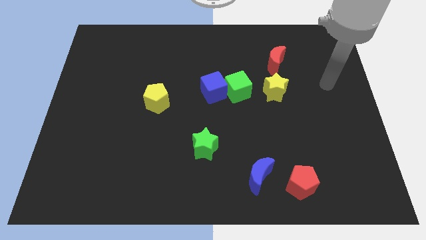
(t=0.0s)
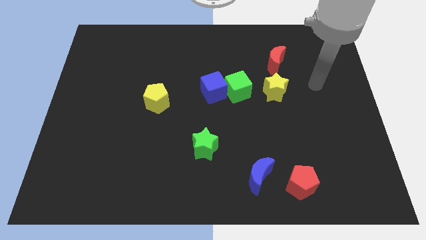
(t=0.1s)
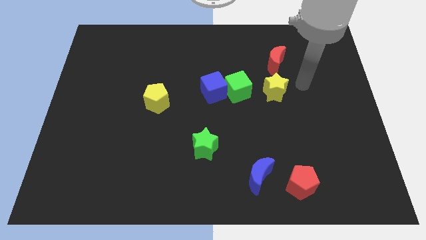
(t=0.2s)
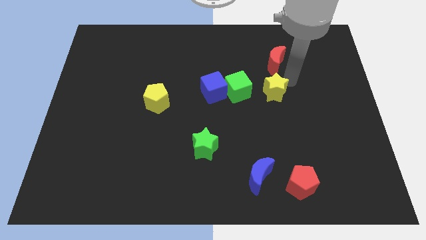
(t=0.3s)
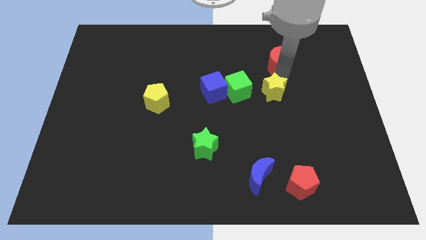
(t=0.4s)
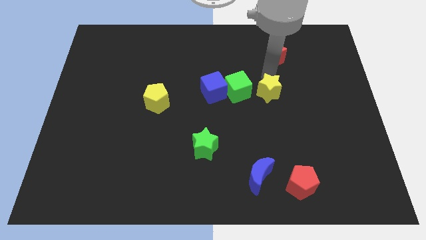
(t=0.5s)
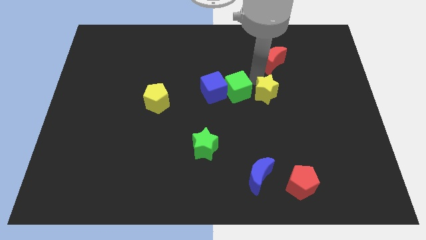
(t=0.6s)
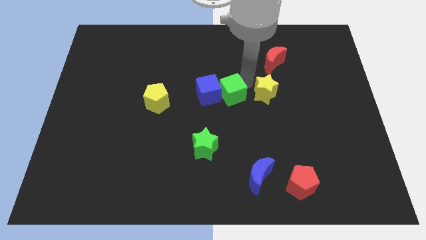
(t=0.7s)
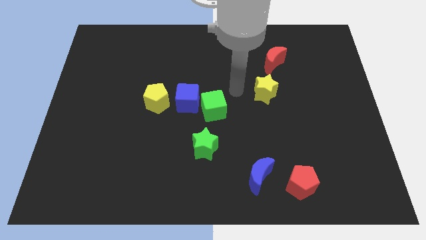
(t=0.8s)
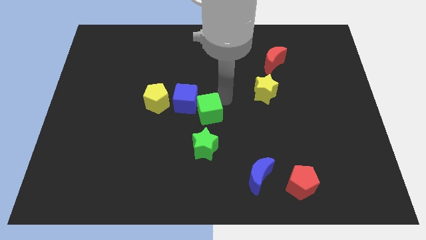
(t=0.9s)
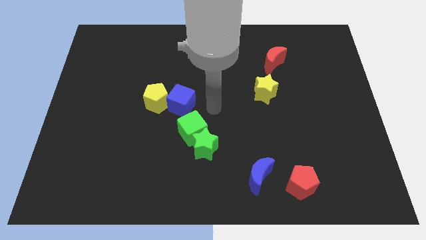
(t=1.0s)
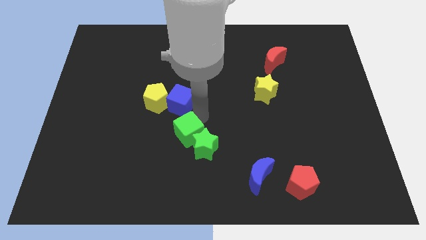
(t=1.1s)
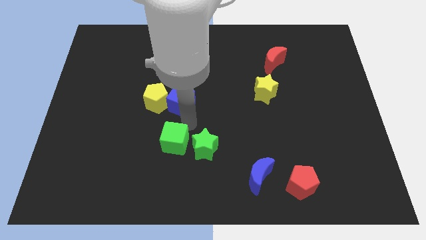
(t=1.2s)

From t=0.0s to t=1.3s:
move the blue cube away from the green cube

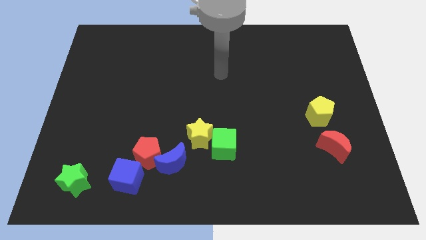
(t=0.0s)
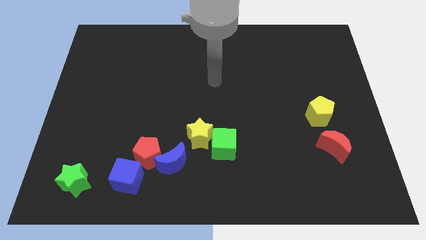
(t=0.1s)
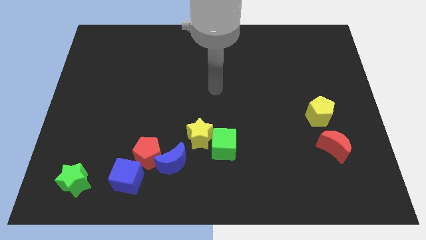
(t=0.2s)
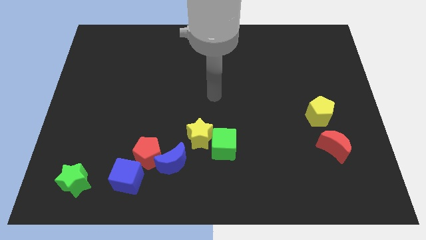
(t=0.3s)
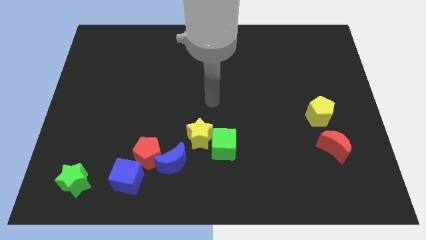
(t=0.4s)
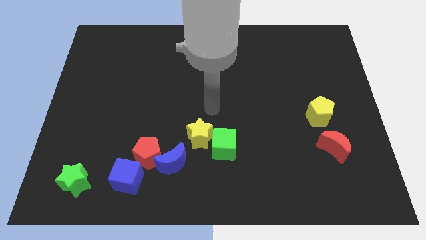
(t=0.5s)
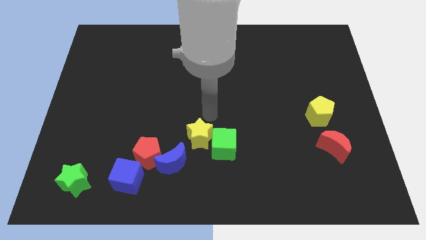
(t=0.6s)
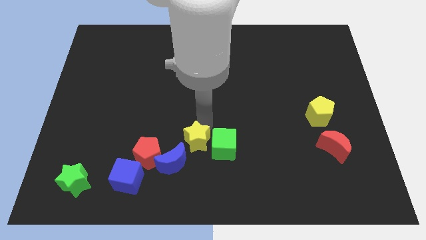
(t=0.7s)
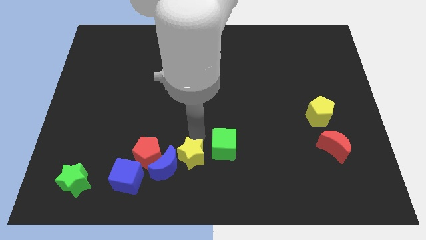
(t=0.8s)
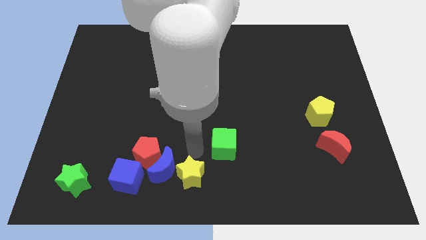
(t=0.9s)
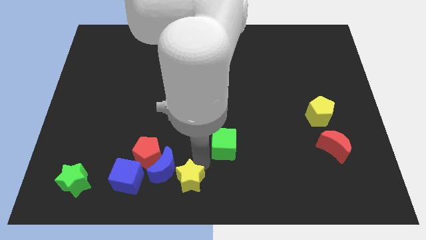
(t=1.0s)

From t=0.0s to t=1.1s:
pull the green cube apart from the yellow star

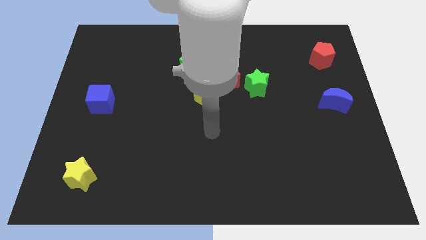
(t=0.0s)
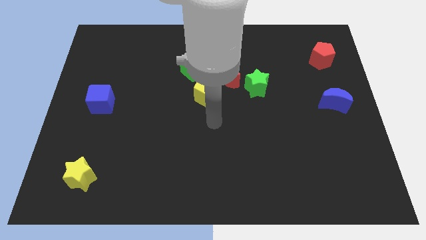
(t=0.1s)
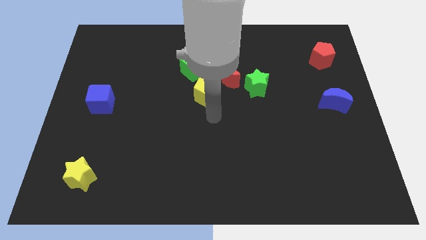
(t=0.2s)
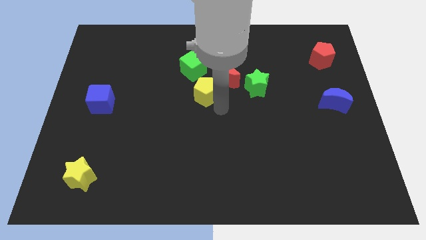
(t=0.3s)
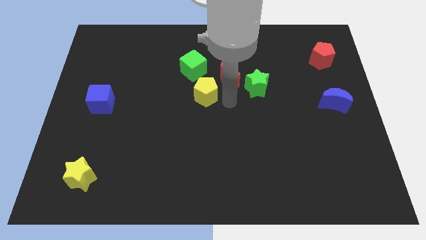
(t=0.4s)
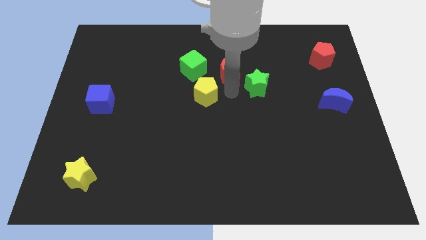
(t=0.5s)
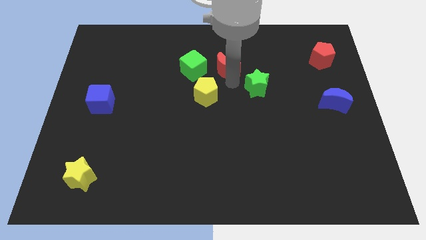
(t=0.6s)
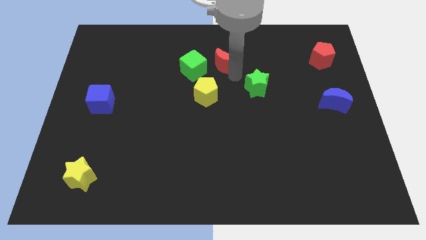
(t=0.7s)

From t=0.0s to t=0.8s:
move the green star away from the red moon

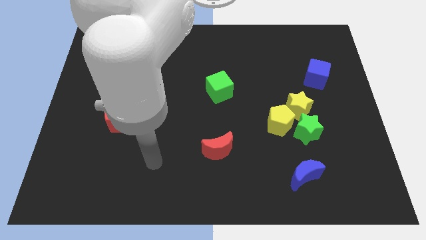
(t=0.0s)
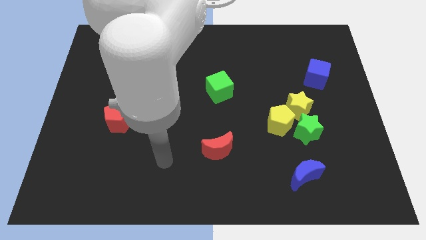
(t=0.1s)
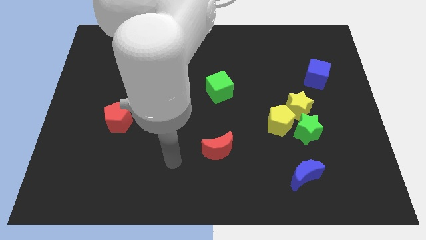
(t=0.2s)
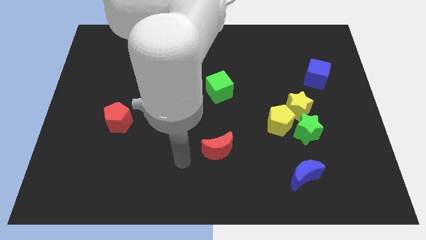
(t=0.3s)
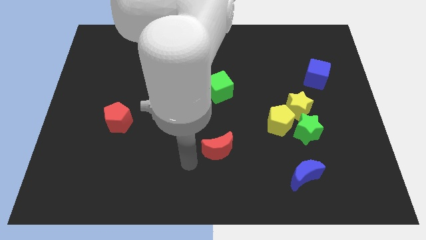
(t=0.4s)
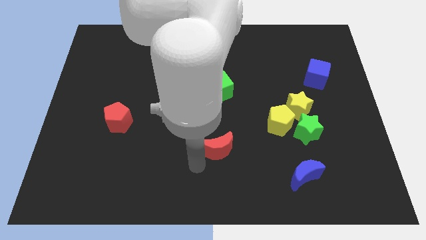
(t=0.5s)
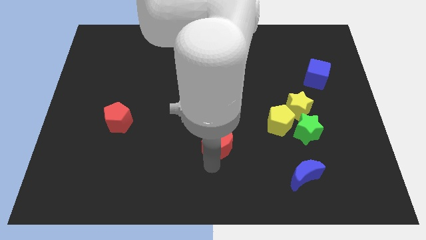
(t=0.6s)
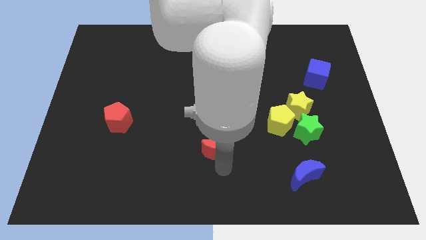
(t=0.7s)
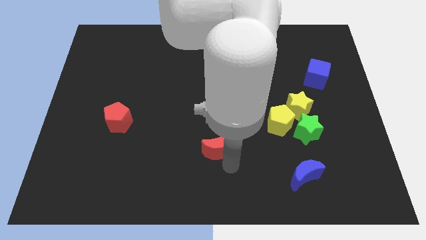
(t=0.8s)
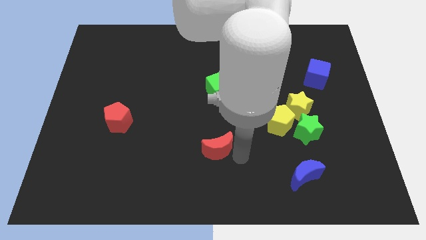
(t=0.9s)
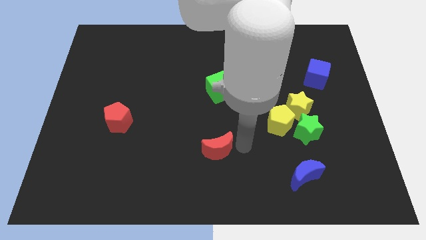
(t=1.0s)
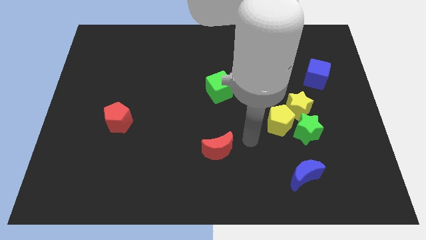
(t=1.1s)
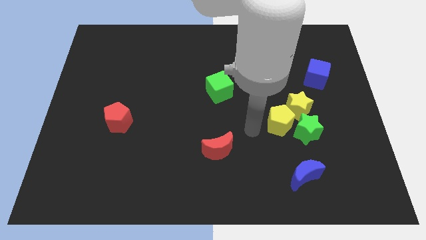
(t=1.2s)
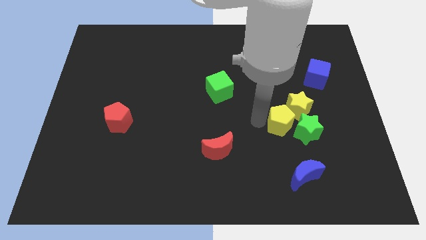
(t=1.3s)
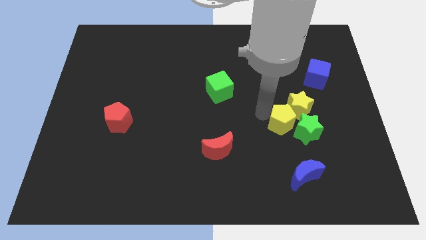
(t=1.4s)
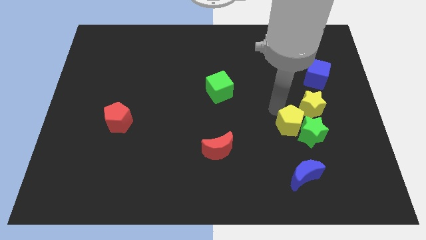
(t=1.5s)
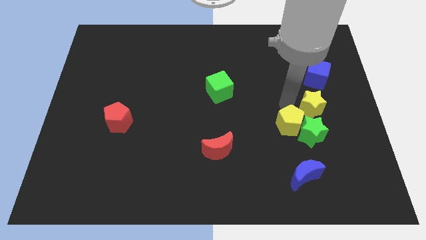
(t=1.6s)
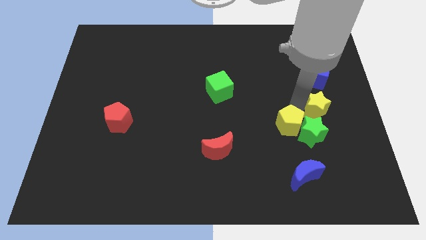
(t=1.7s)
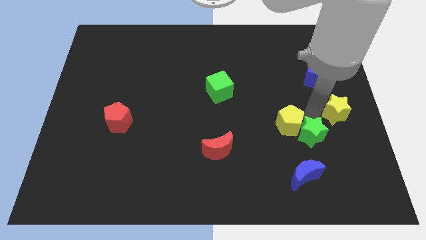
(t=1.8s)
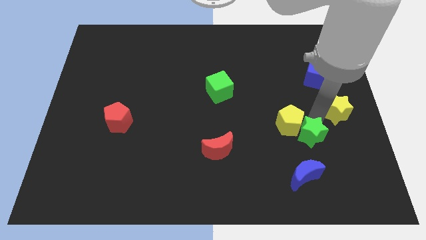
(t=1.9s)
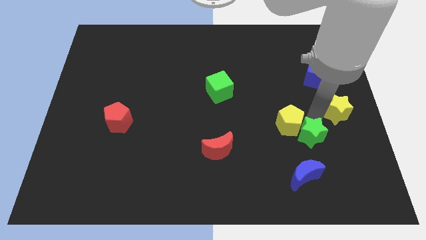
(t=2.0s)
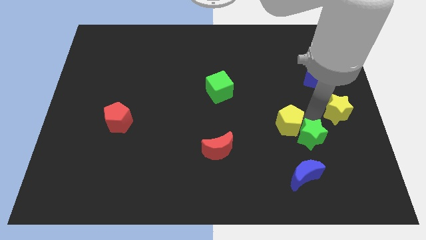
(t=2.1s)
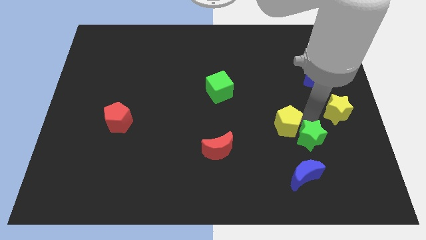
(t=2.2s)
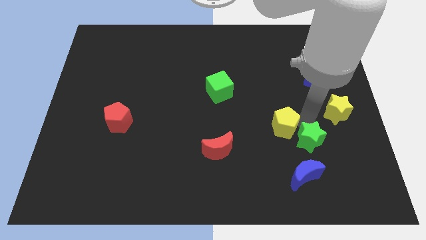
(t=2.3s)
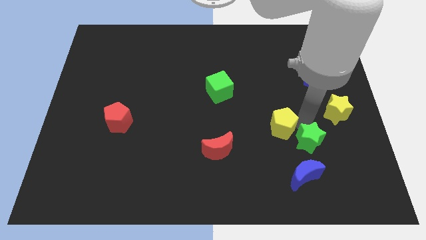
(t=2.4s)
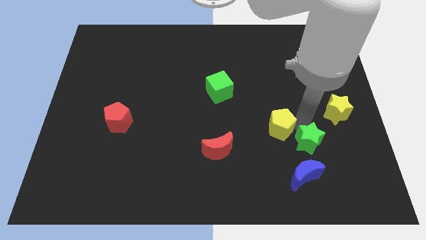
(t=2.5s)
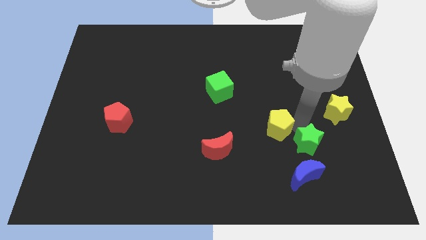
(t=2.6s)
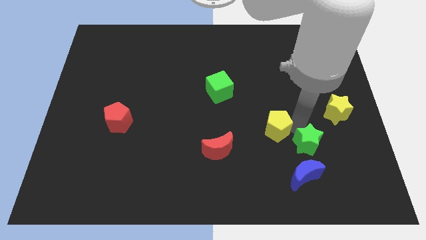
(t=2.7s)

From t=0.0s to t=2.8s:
move the yellow pentagon away from the yellow star and green star

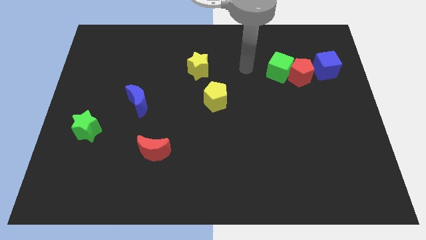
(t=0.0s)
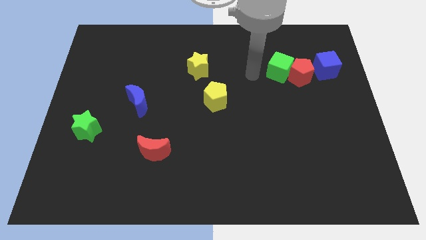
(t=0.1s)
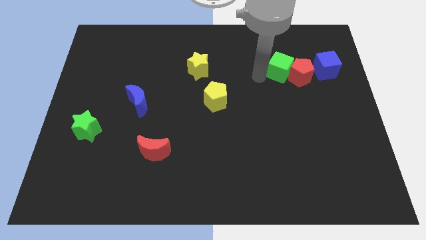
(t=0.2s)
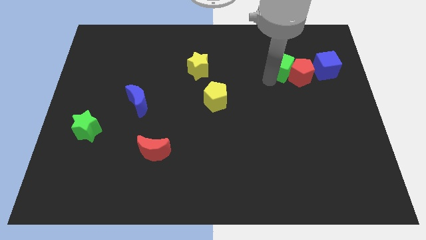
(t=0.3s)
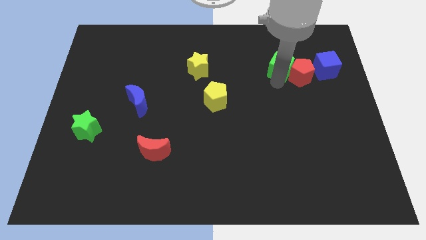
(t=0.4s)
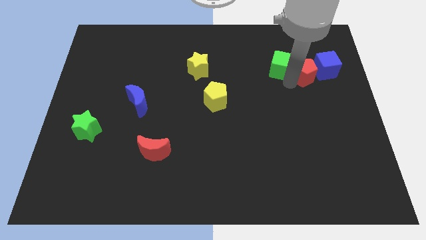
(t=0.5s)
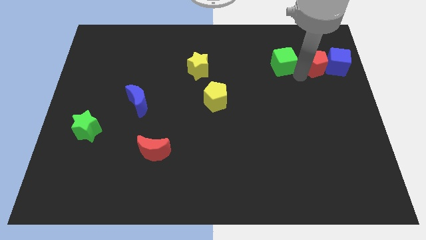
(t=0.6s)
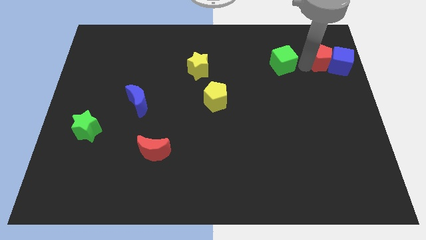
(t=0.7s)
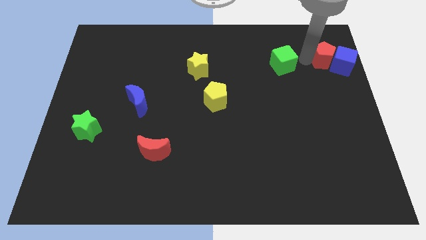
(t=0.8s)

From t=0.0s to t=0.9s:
pull the green cube apart from the red pentagon

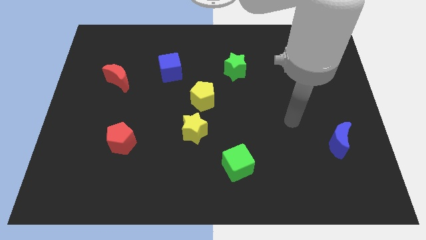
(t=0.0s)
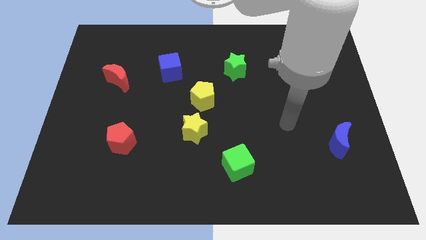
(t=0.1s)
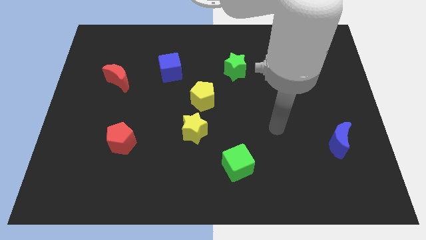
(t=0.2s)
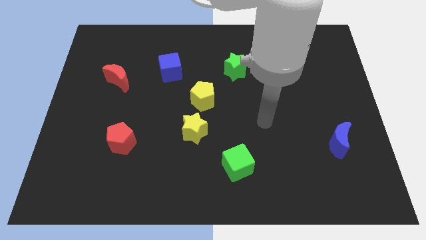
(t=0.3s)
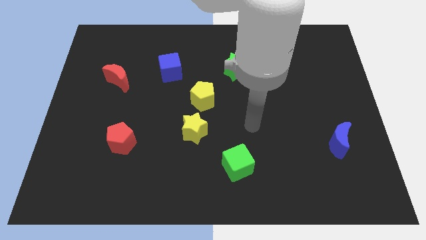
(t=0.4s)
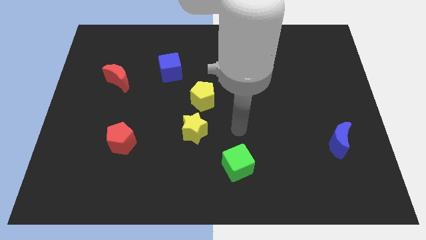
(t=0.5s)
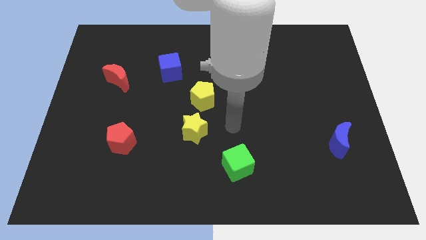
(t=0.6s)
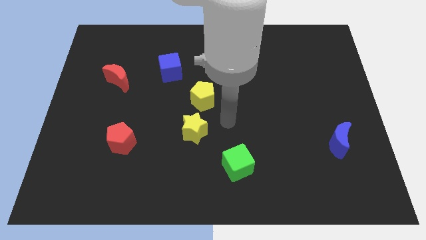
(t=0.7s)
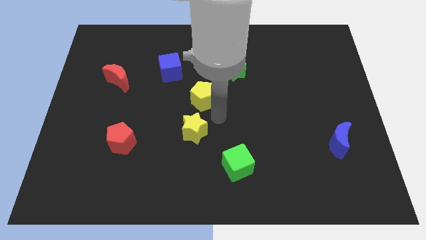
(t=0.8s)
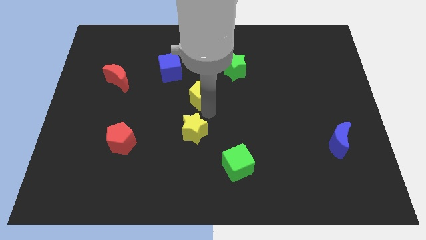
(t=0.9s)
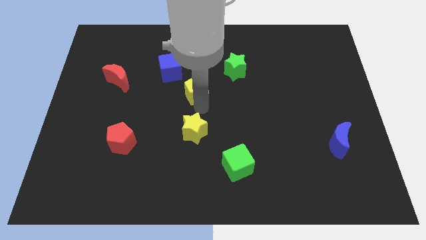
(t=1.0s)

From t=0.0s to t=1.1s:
separate the yellow star from the yellow pentagon

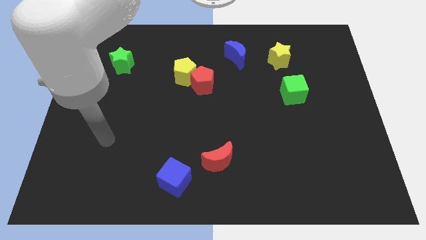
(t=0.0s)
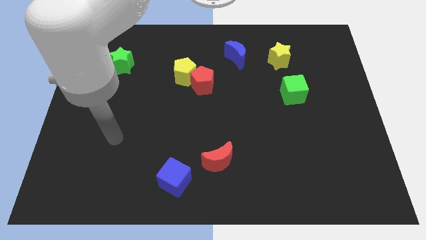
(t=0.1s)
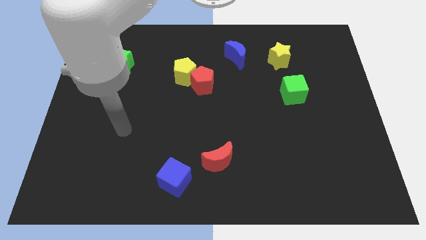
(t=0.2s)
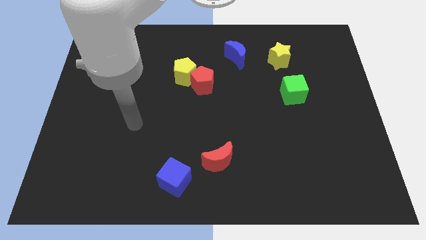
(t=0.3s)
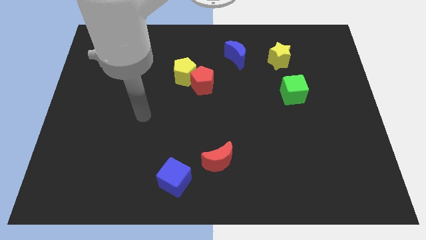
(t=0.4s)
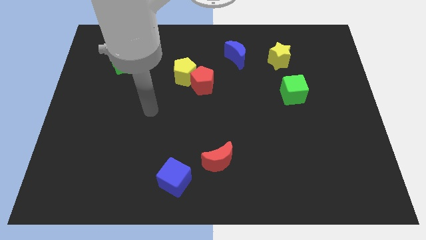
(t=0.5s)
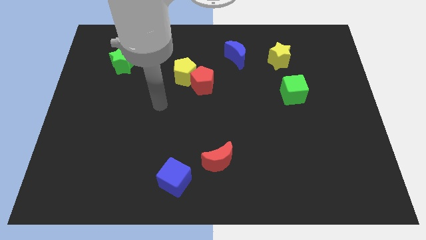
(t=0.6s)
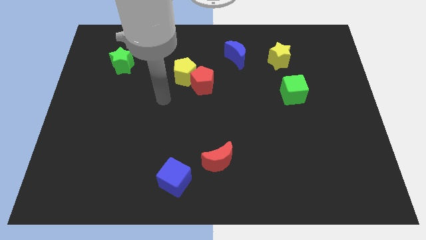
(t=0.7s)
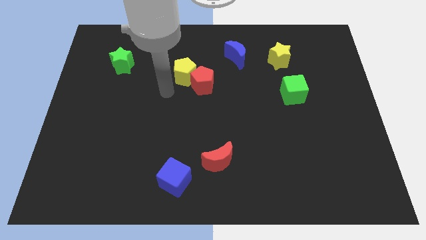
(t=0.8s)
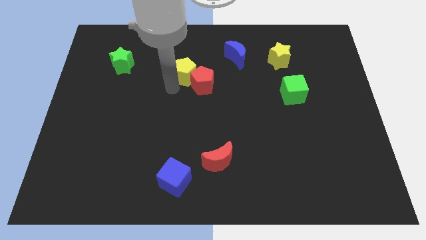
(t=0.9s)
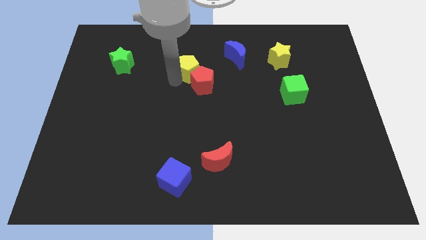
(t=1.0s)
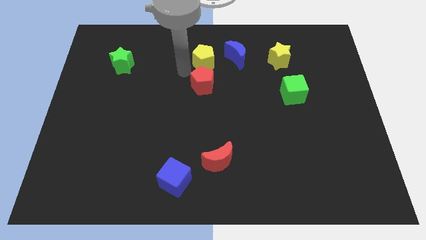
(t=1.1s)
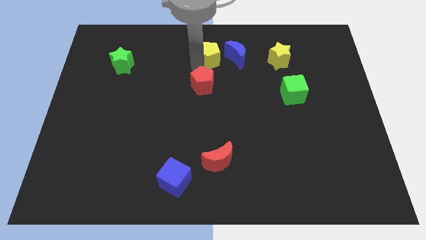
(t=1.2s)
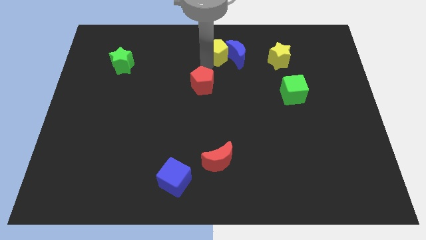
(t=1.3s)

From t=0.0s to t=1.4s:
move the red pentagon away from the yellow pentagon
